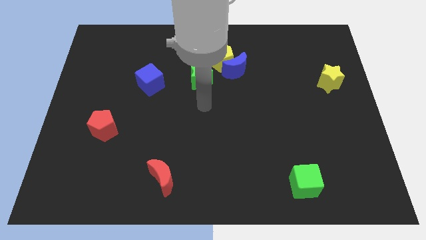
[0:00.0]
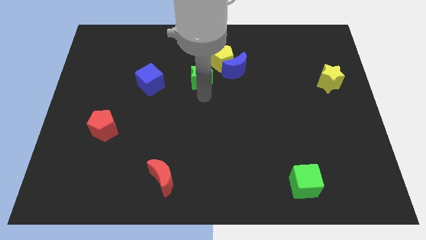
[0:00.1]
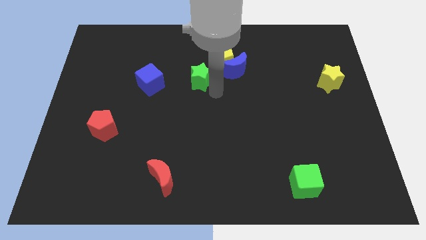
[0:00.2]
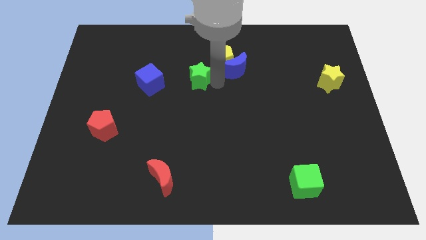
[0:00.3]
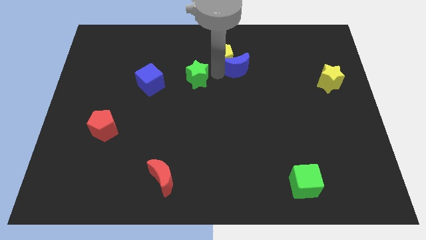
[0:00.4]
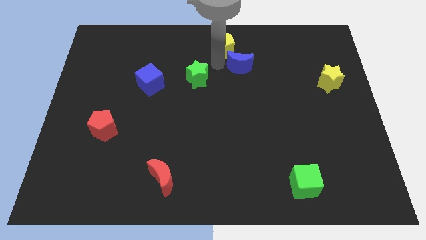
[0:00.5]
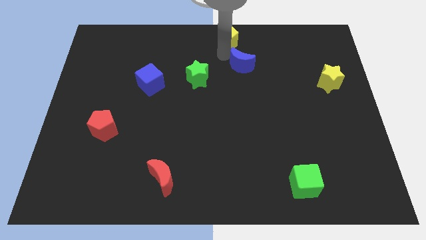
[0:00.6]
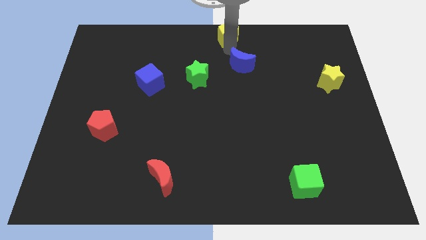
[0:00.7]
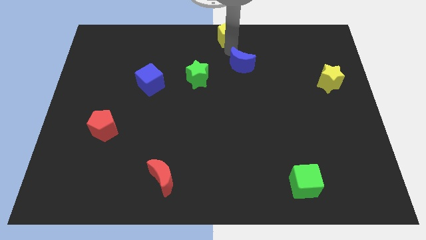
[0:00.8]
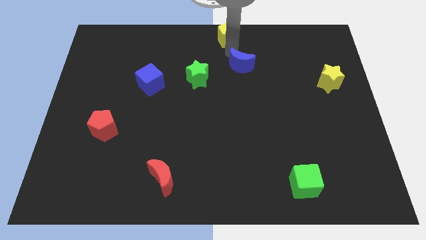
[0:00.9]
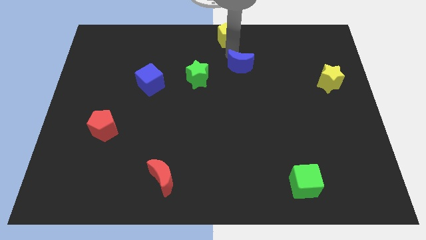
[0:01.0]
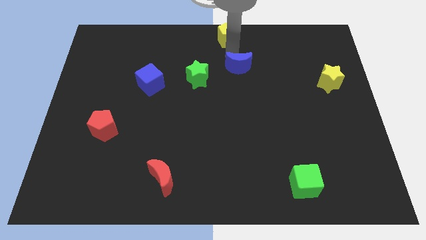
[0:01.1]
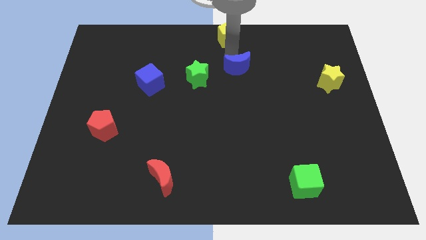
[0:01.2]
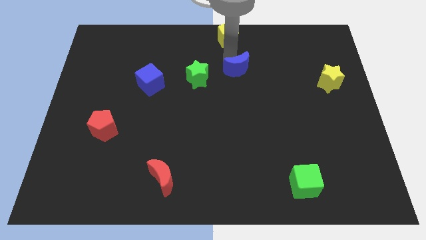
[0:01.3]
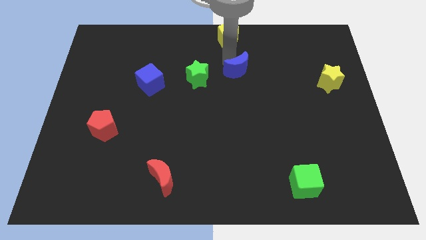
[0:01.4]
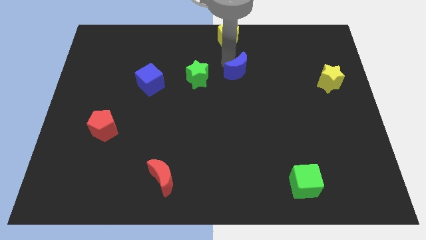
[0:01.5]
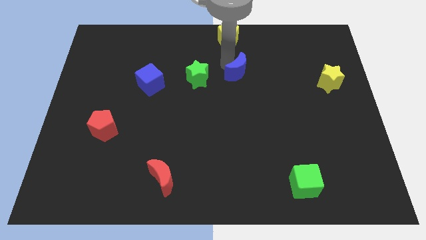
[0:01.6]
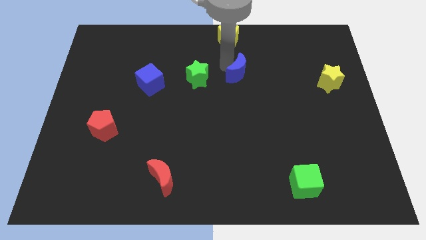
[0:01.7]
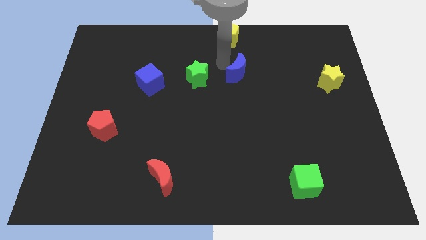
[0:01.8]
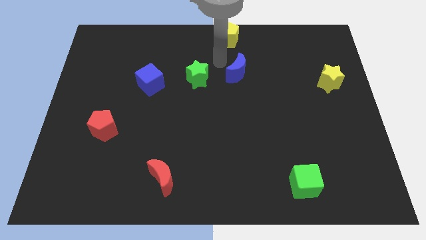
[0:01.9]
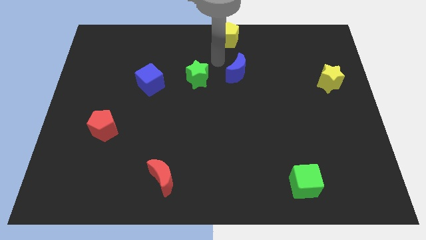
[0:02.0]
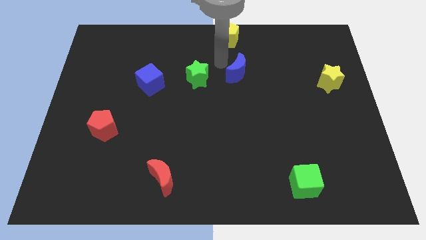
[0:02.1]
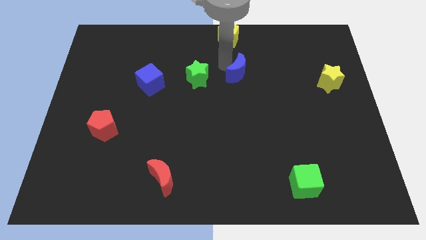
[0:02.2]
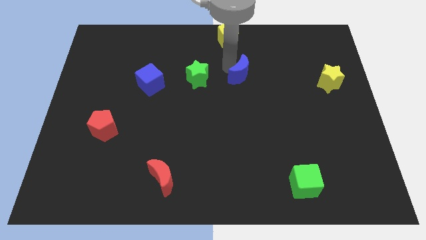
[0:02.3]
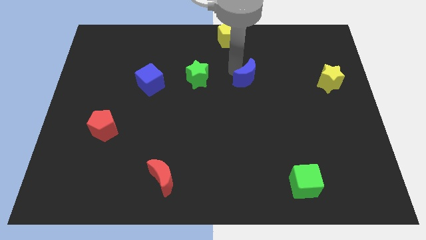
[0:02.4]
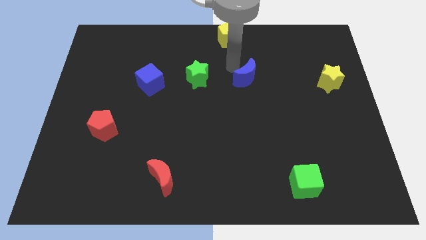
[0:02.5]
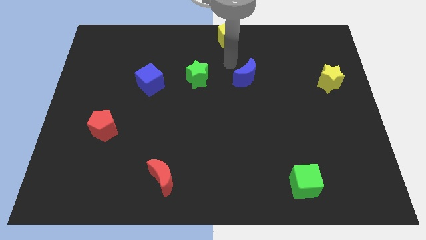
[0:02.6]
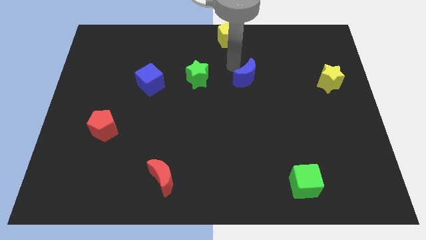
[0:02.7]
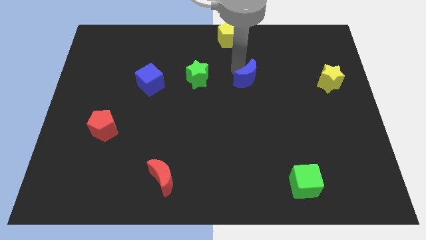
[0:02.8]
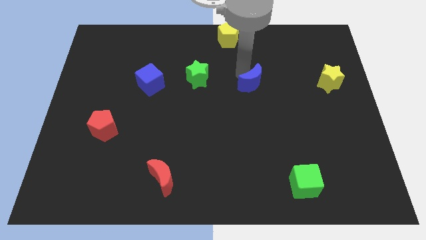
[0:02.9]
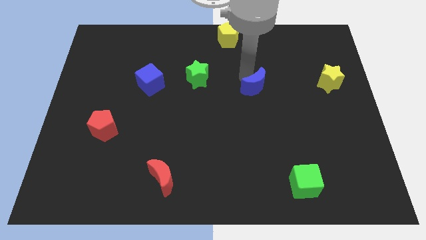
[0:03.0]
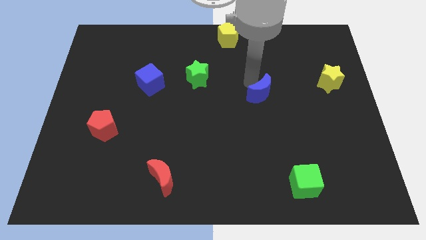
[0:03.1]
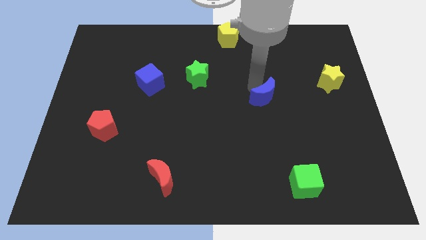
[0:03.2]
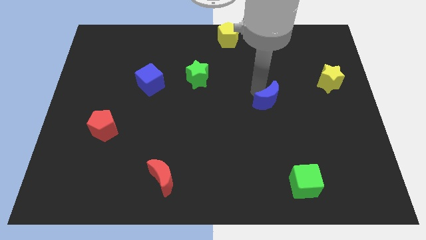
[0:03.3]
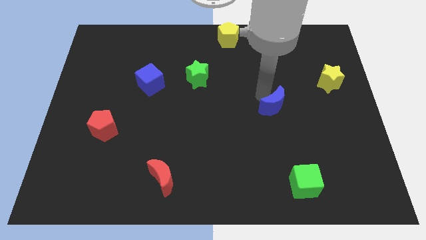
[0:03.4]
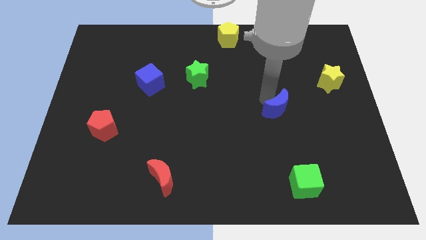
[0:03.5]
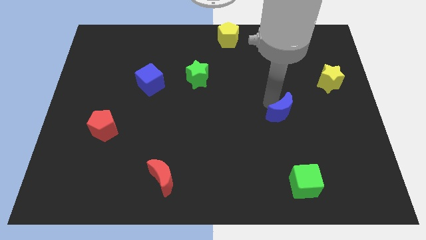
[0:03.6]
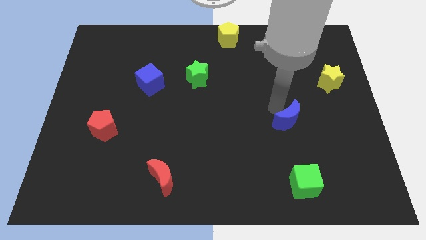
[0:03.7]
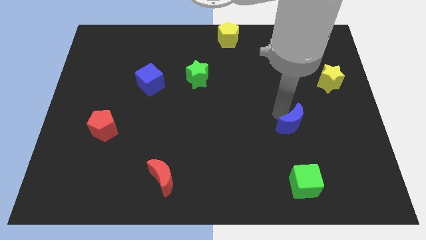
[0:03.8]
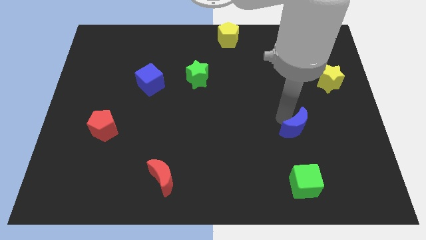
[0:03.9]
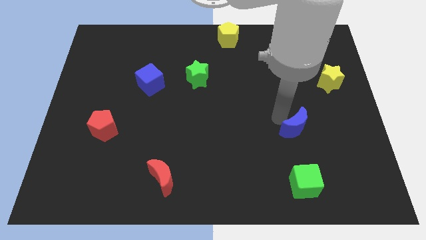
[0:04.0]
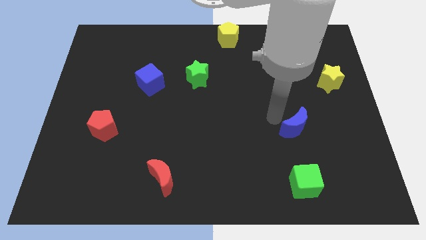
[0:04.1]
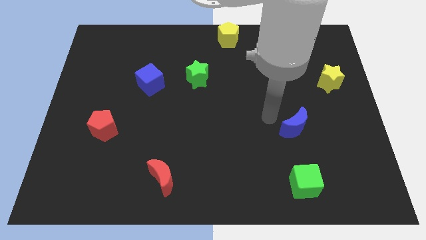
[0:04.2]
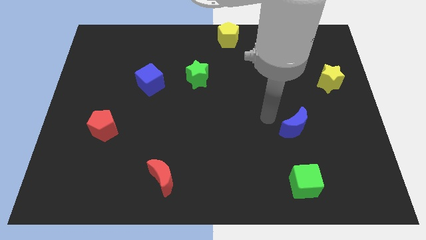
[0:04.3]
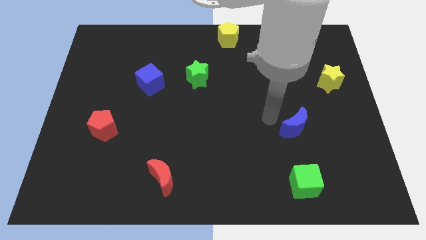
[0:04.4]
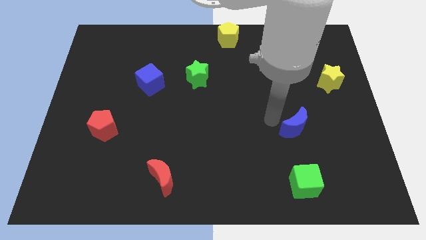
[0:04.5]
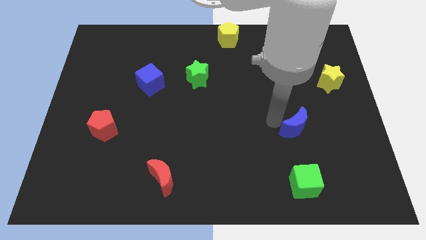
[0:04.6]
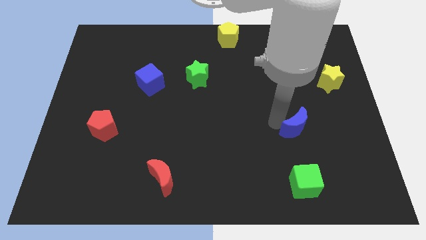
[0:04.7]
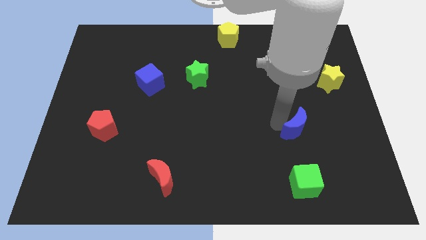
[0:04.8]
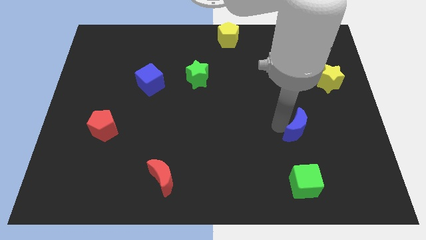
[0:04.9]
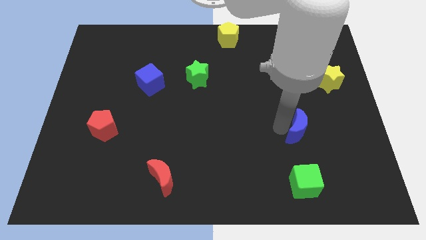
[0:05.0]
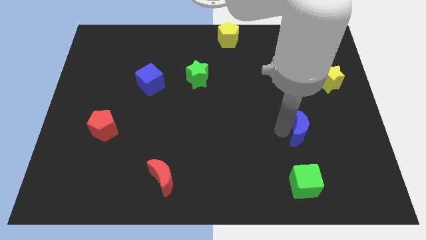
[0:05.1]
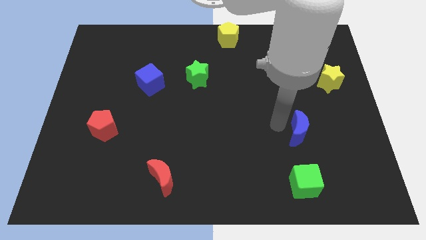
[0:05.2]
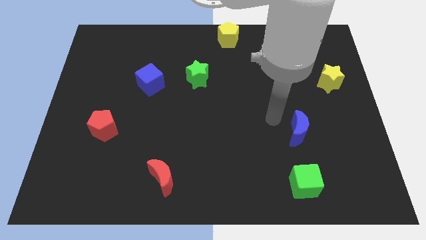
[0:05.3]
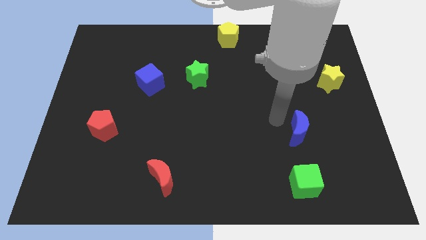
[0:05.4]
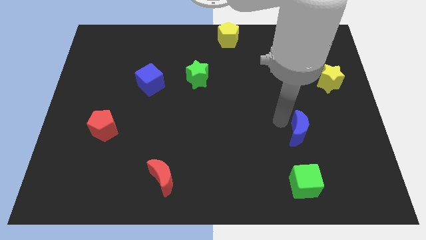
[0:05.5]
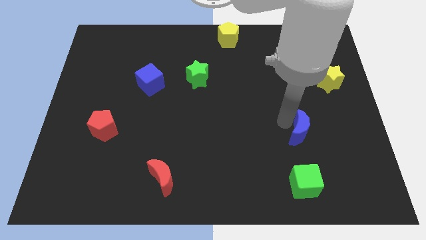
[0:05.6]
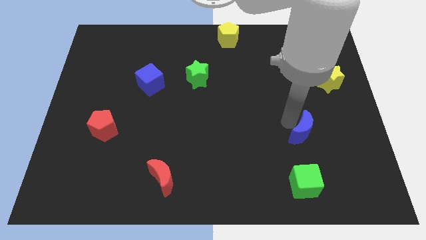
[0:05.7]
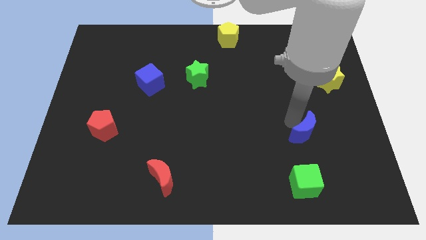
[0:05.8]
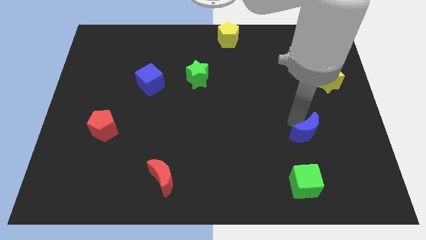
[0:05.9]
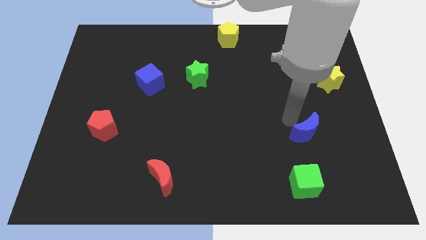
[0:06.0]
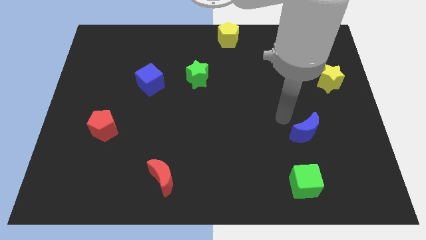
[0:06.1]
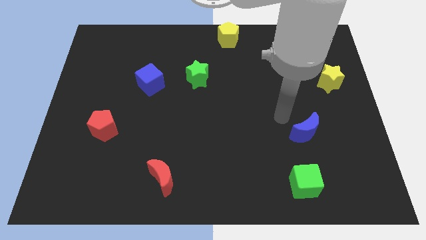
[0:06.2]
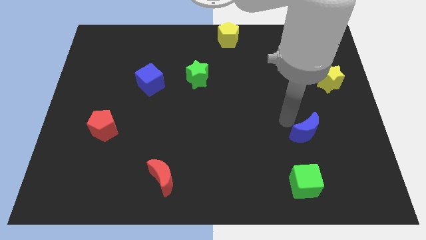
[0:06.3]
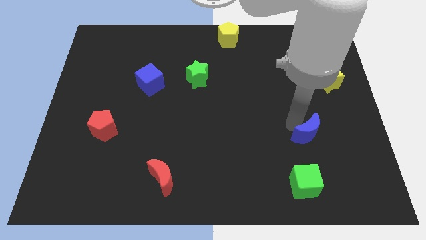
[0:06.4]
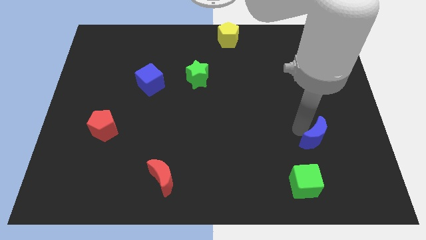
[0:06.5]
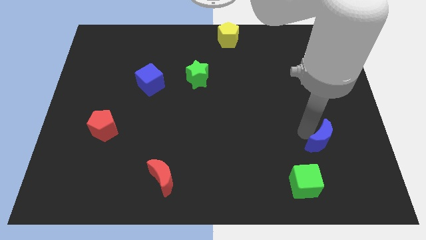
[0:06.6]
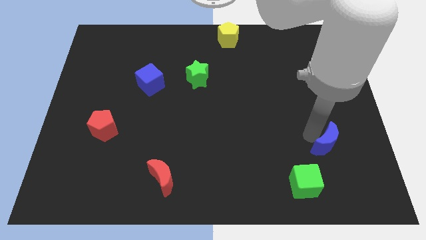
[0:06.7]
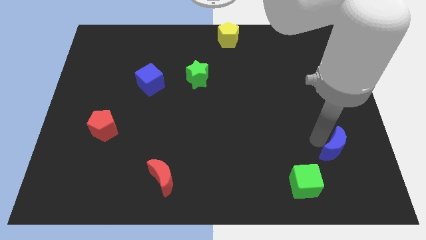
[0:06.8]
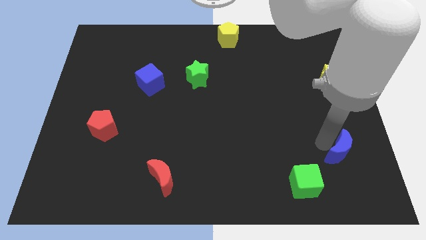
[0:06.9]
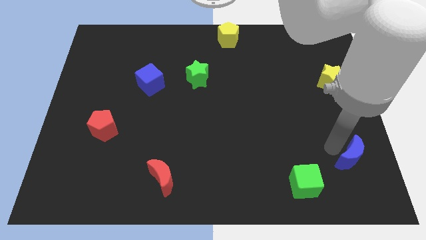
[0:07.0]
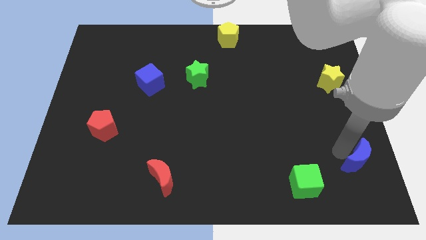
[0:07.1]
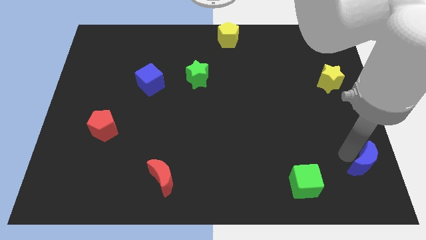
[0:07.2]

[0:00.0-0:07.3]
push the blue moon to the bottom right
